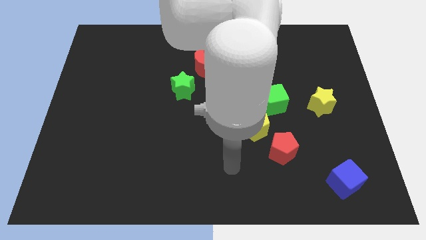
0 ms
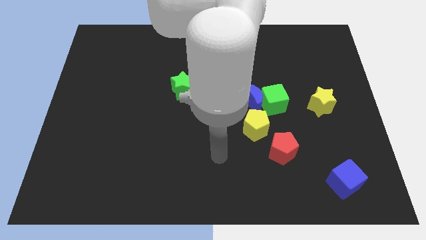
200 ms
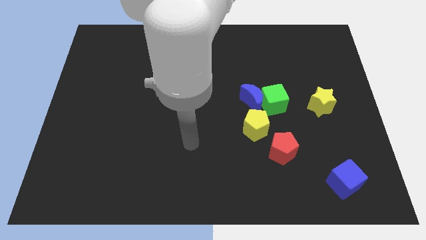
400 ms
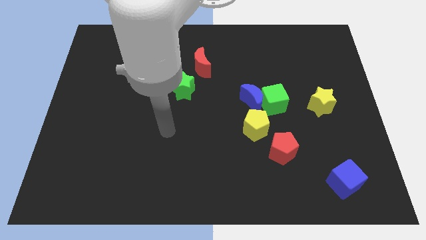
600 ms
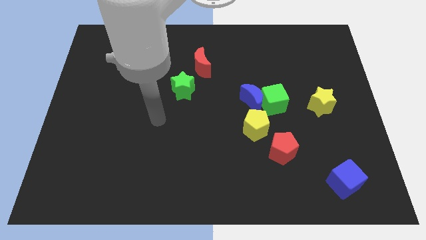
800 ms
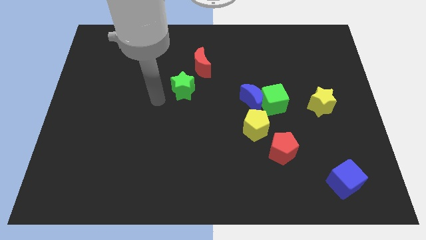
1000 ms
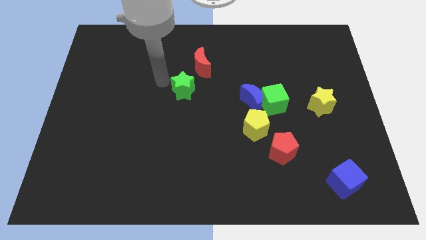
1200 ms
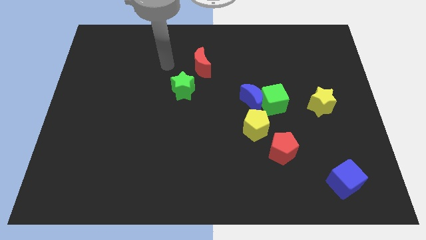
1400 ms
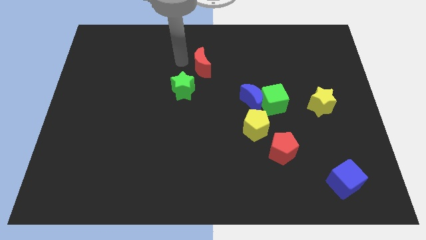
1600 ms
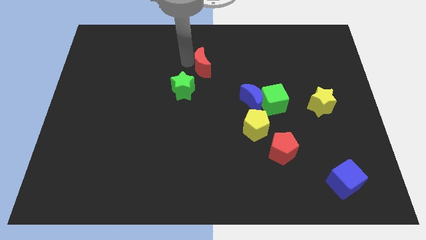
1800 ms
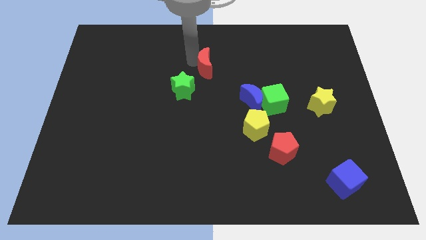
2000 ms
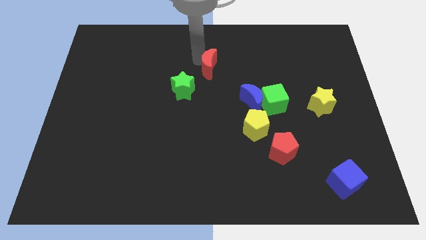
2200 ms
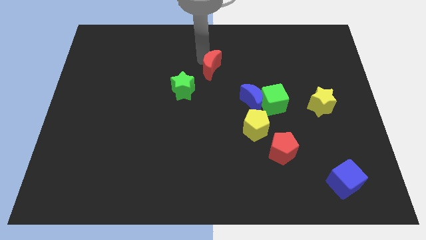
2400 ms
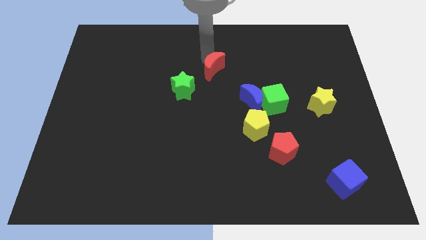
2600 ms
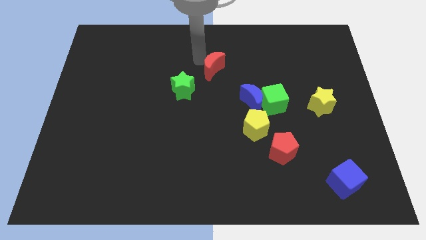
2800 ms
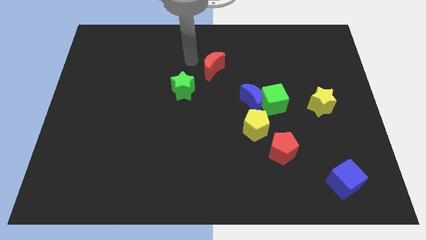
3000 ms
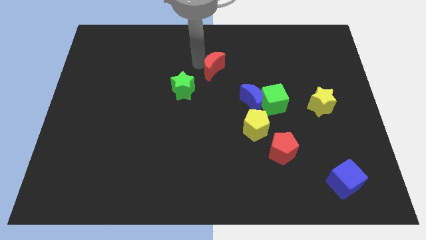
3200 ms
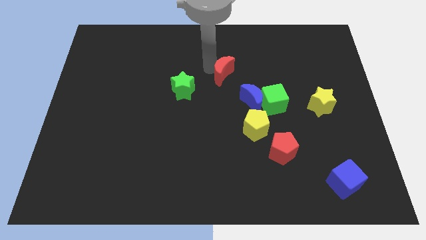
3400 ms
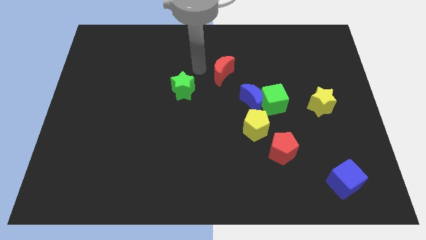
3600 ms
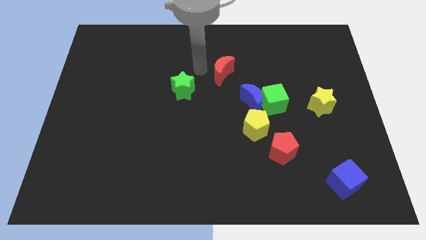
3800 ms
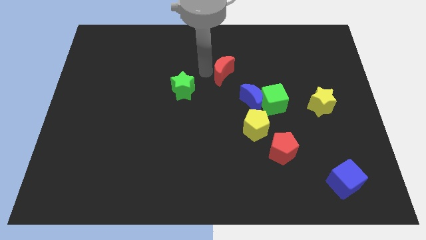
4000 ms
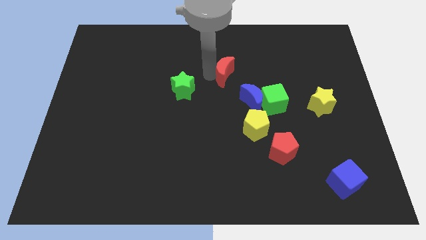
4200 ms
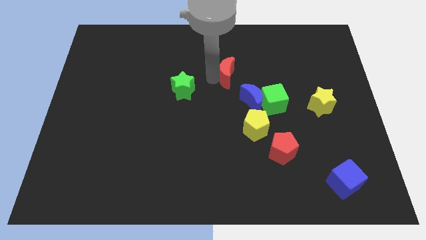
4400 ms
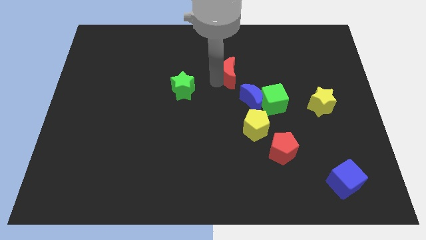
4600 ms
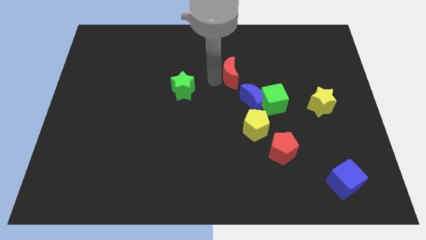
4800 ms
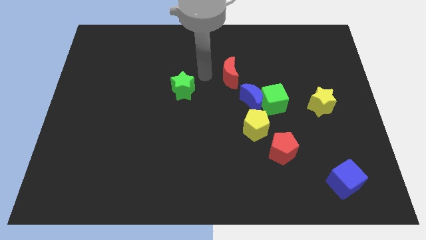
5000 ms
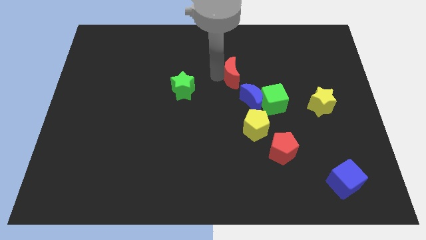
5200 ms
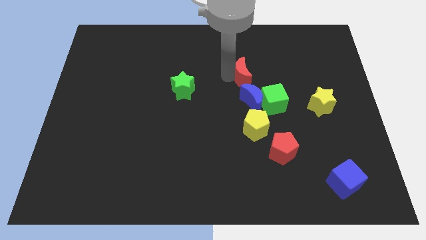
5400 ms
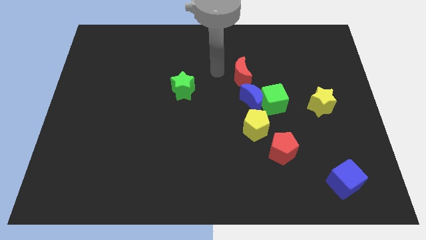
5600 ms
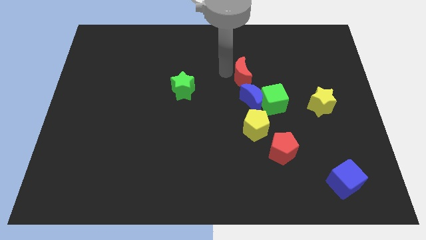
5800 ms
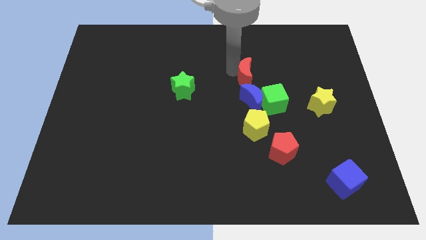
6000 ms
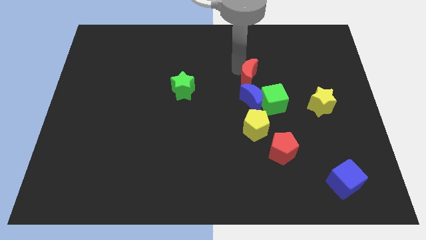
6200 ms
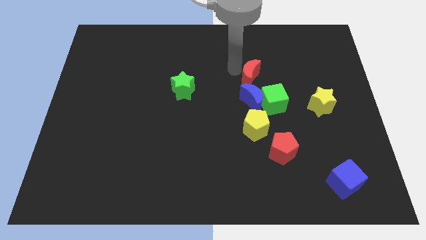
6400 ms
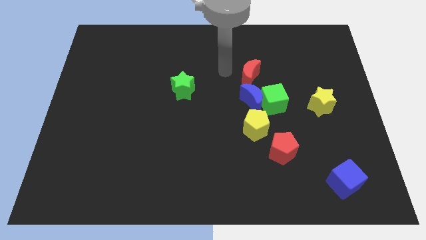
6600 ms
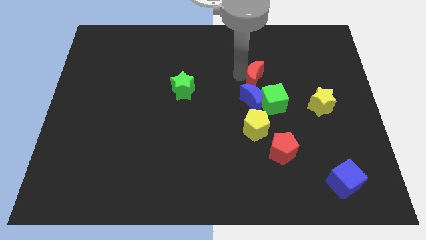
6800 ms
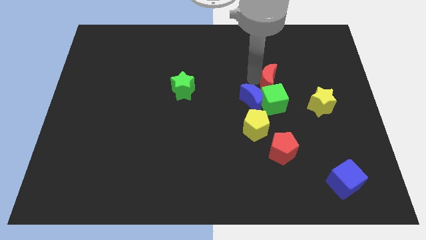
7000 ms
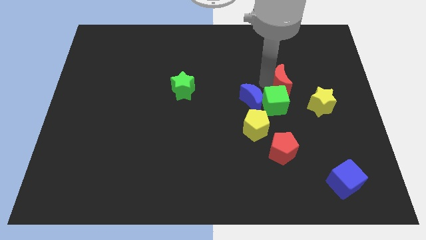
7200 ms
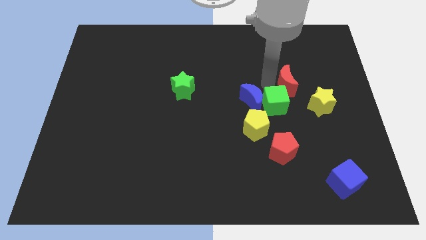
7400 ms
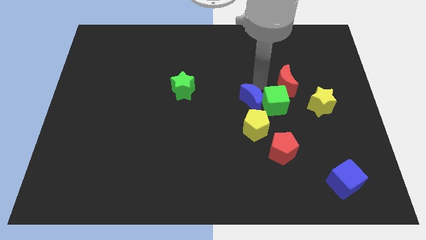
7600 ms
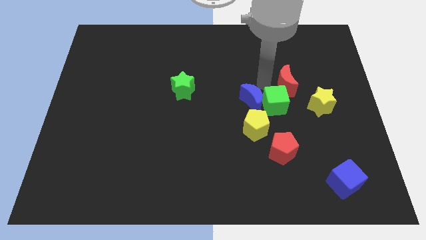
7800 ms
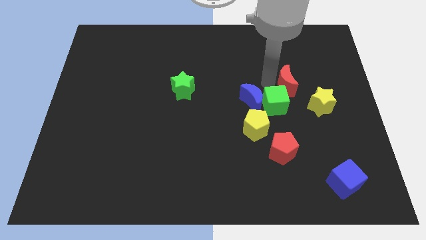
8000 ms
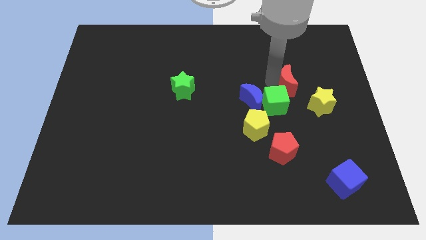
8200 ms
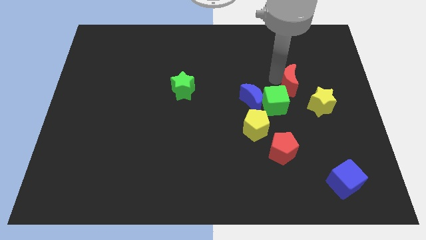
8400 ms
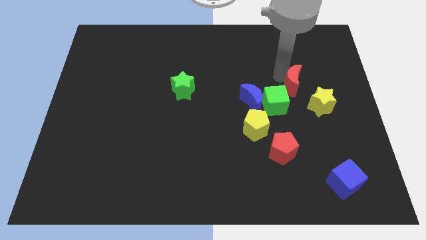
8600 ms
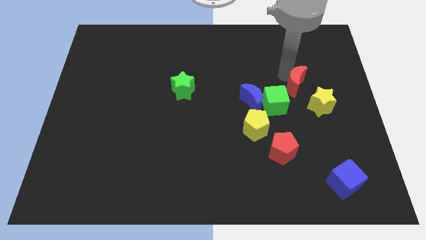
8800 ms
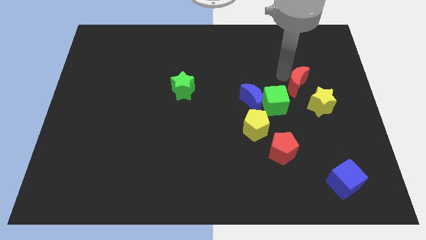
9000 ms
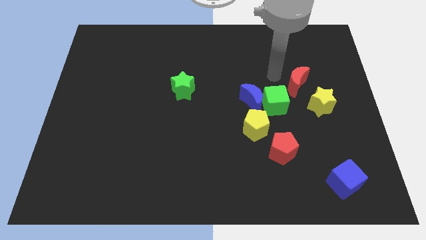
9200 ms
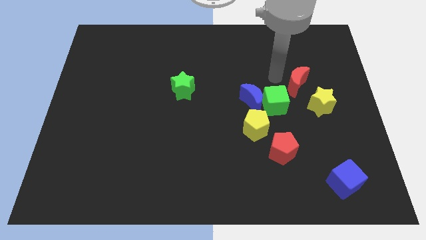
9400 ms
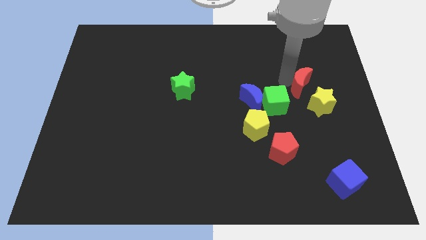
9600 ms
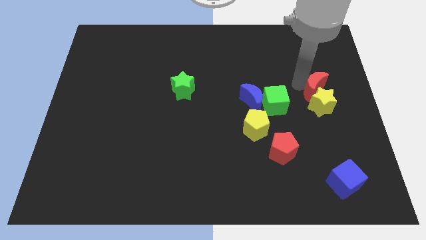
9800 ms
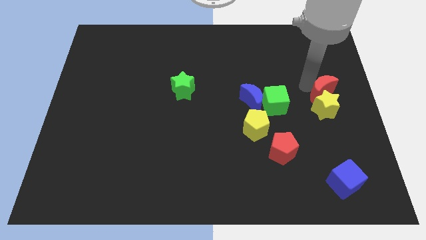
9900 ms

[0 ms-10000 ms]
slide the red moon to the right side of the board

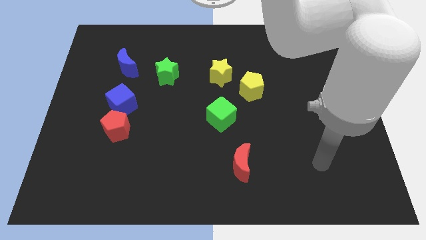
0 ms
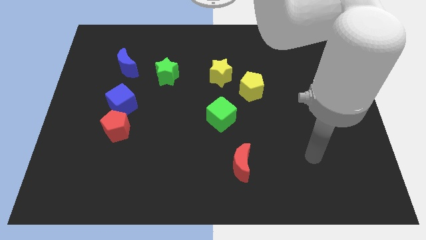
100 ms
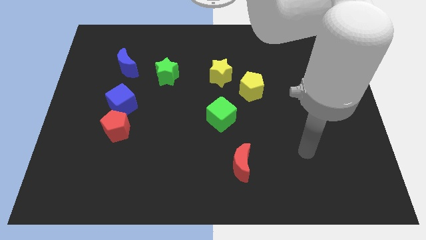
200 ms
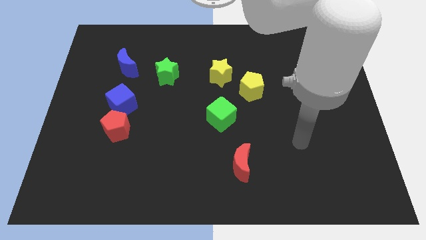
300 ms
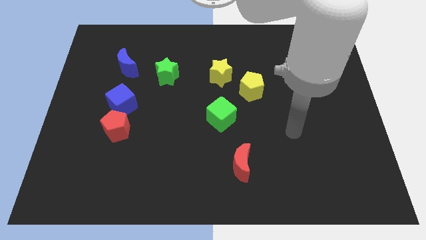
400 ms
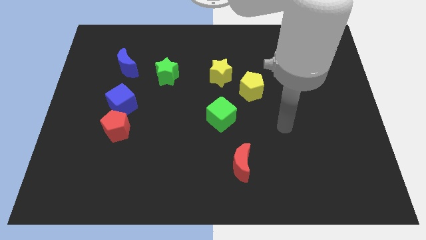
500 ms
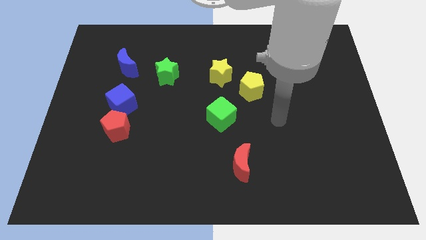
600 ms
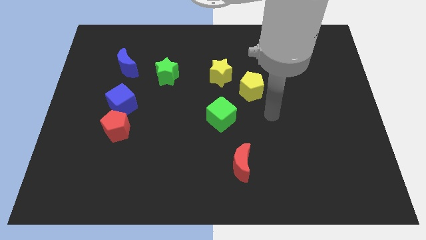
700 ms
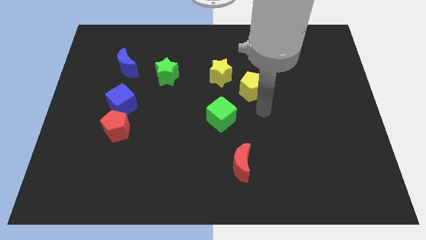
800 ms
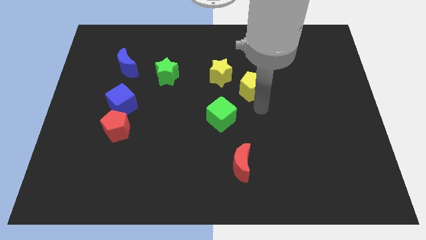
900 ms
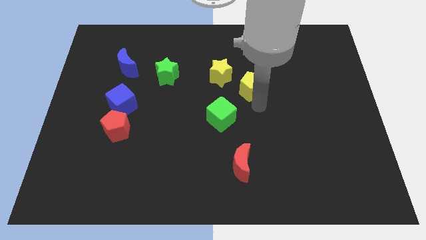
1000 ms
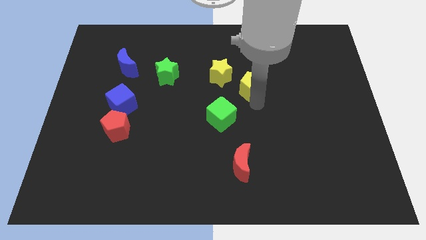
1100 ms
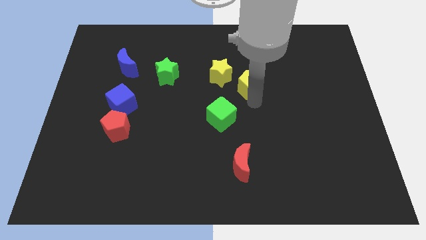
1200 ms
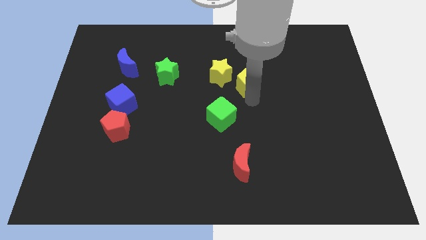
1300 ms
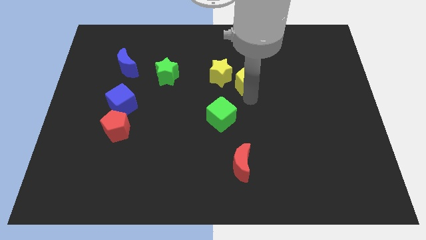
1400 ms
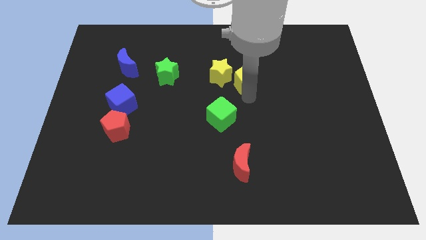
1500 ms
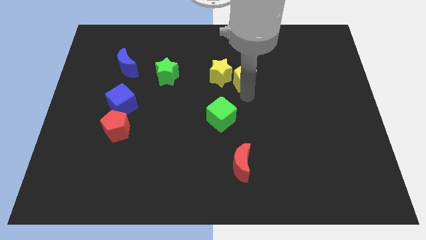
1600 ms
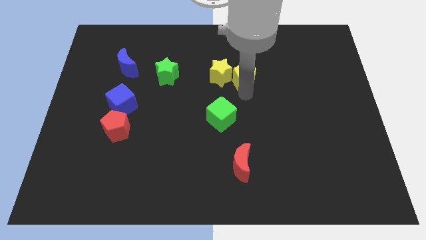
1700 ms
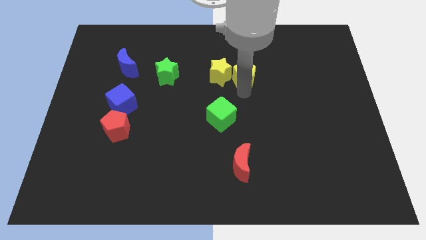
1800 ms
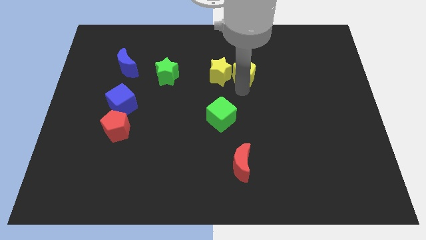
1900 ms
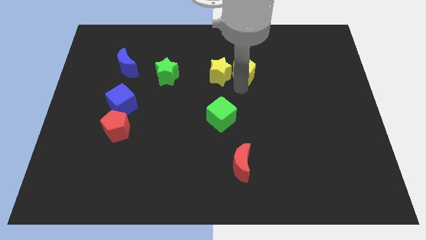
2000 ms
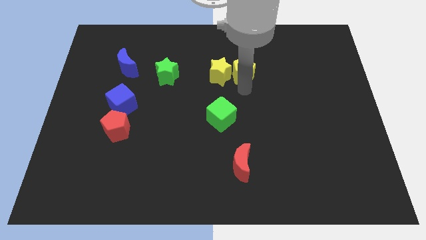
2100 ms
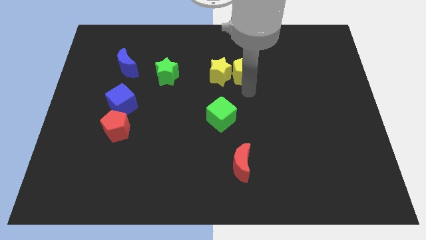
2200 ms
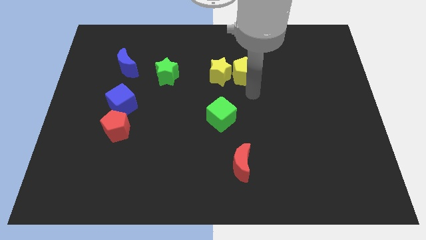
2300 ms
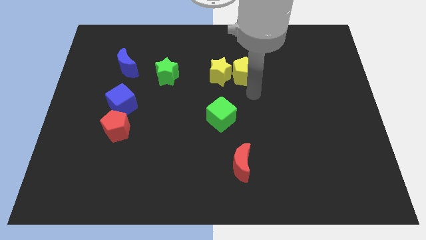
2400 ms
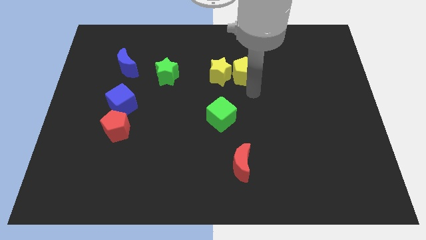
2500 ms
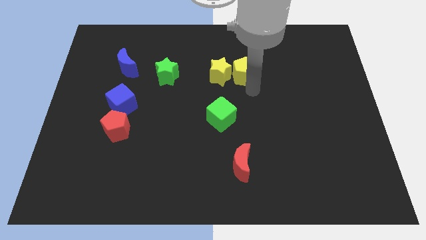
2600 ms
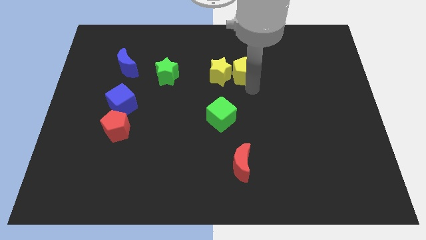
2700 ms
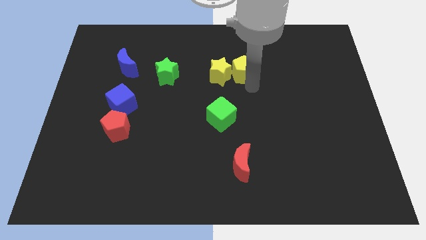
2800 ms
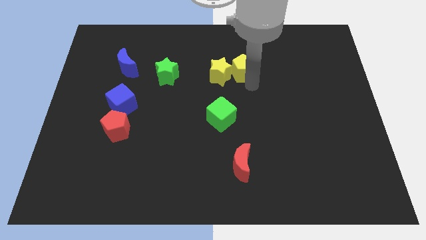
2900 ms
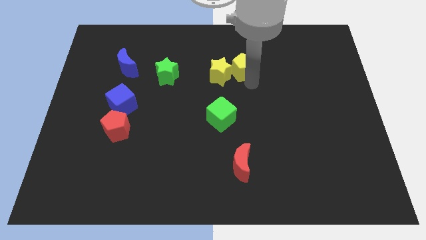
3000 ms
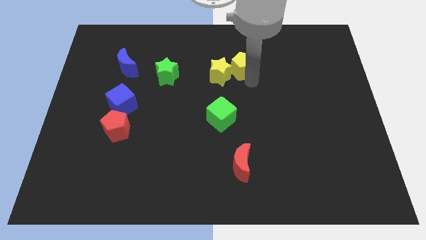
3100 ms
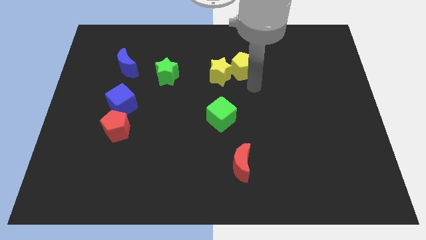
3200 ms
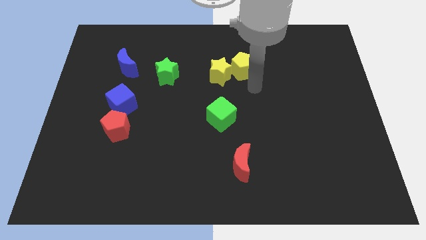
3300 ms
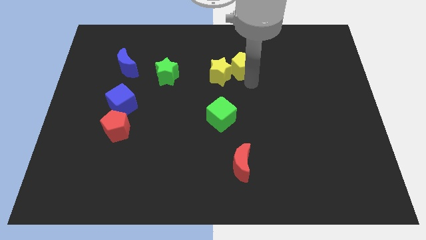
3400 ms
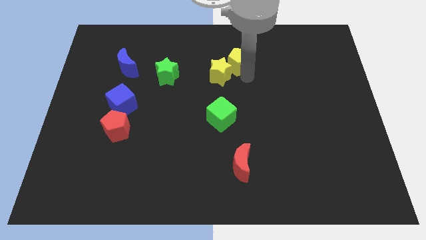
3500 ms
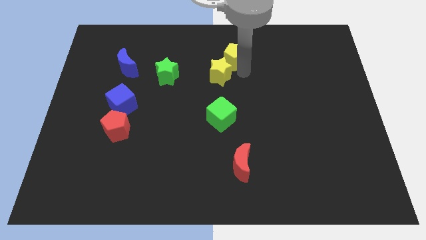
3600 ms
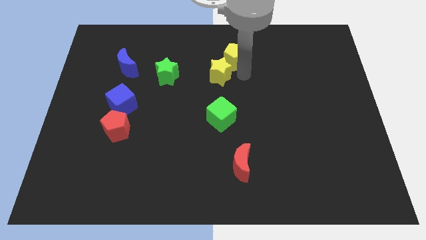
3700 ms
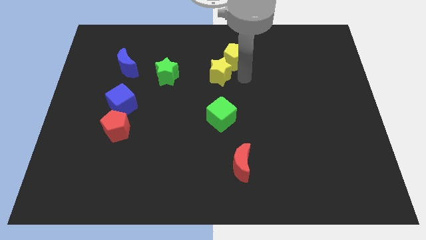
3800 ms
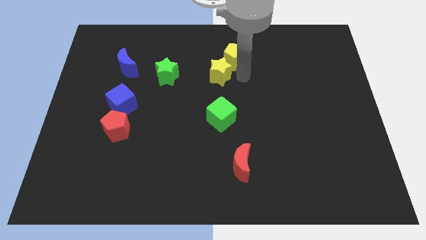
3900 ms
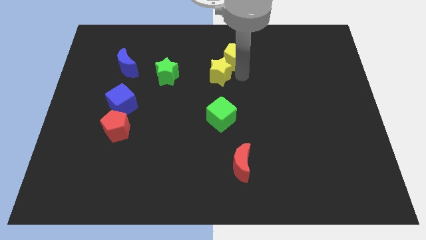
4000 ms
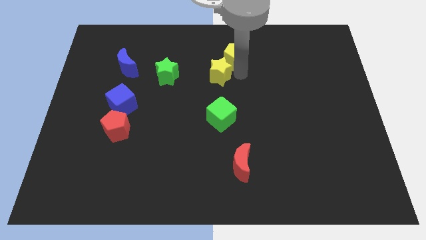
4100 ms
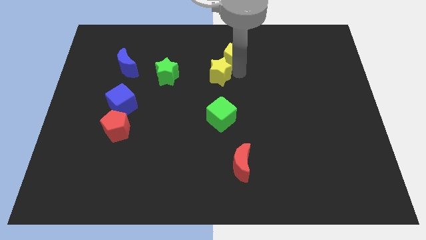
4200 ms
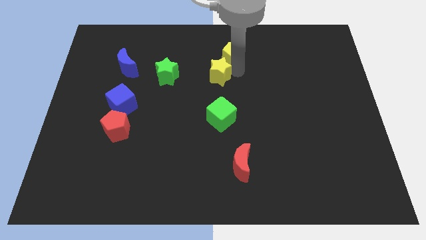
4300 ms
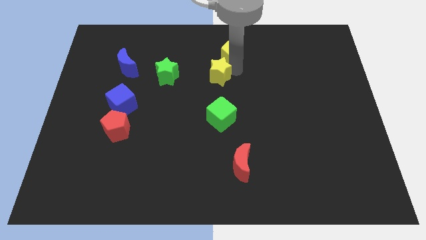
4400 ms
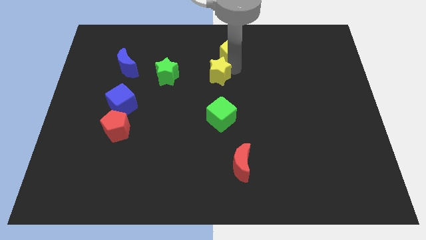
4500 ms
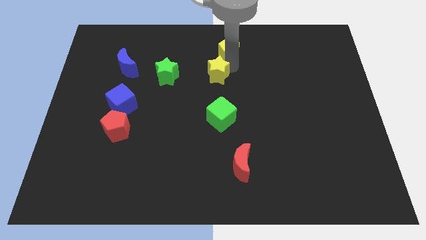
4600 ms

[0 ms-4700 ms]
move the yellow pentagon to the top
